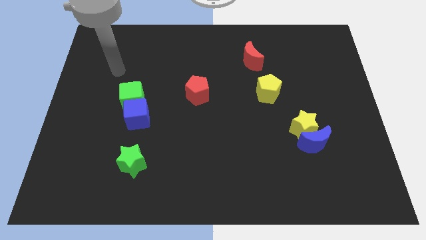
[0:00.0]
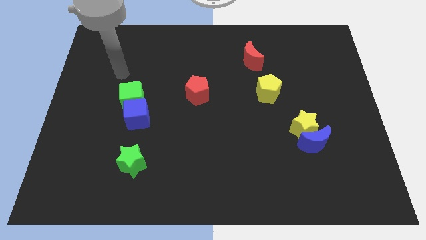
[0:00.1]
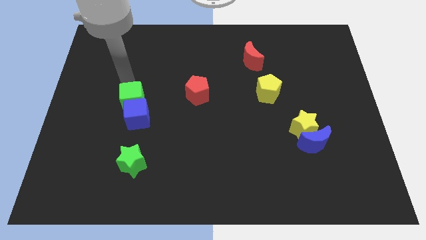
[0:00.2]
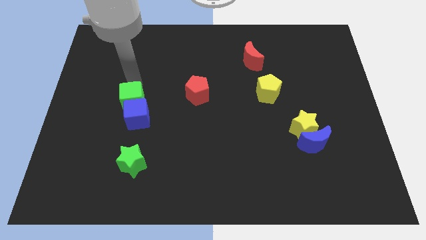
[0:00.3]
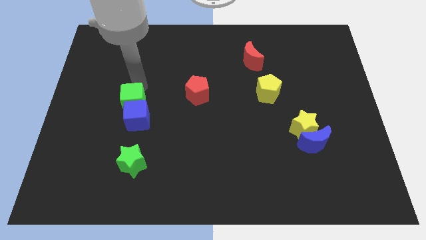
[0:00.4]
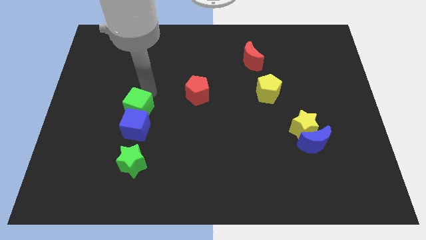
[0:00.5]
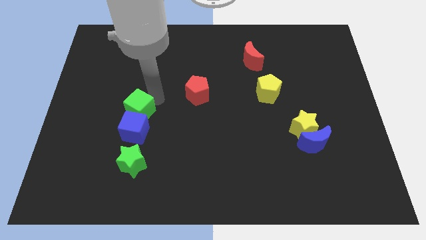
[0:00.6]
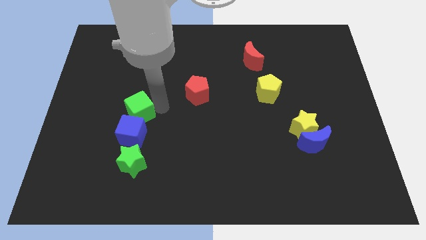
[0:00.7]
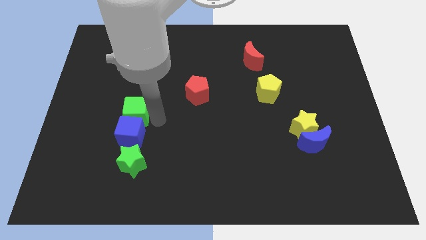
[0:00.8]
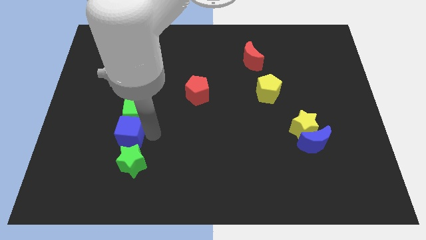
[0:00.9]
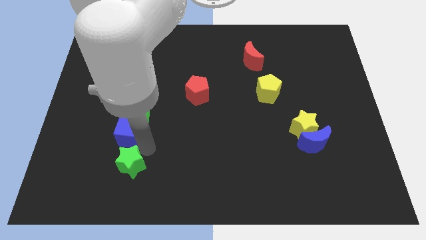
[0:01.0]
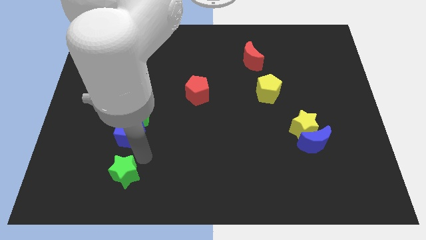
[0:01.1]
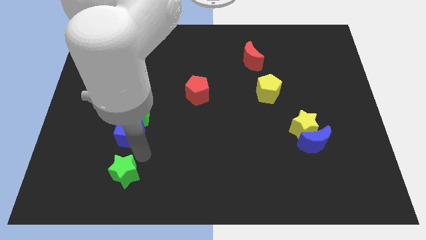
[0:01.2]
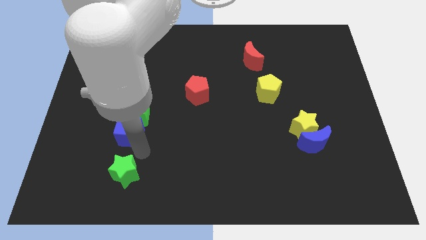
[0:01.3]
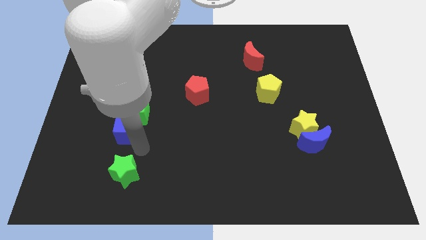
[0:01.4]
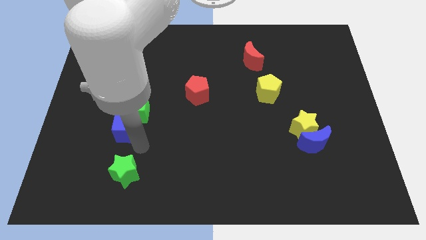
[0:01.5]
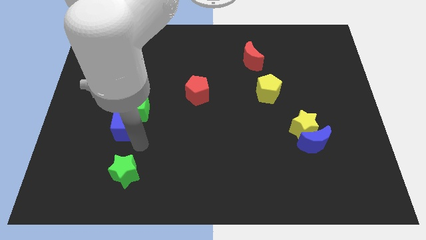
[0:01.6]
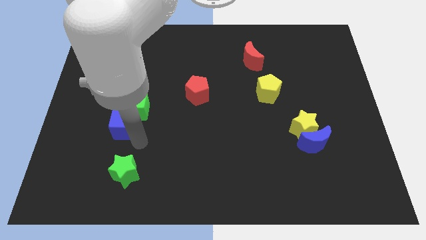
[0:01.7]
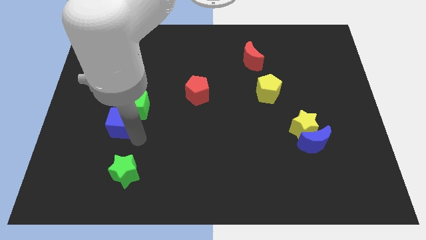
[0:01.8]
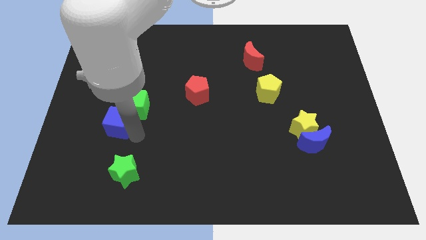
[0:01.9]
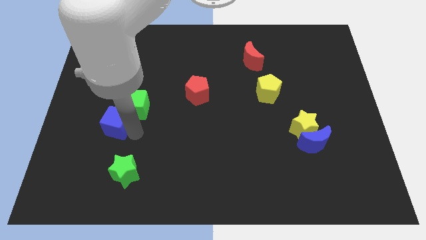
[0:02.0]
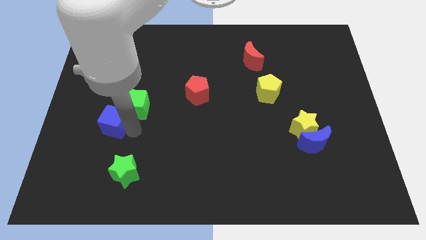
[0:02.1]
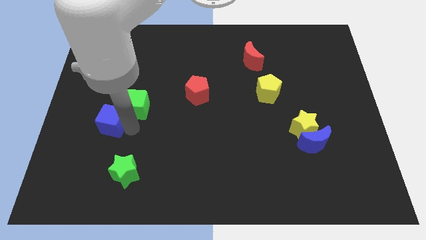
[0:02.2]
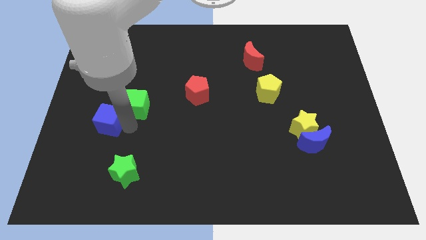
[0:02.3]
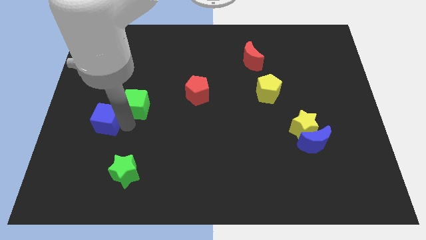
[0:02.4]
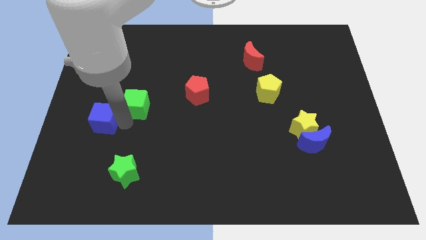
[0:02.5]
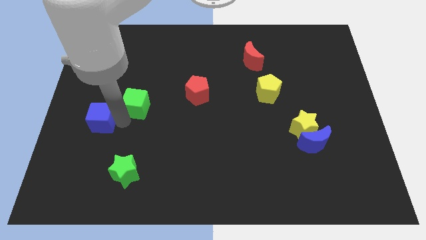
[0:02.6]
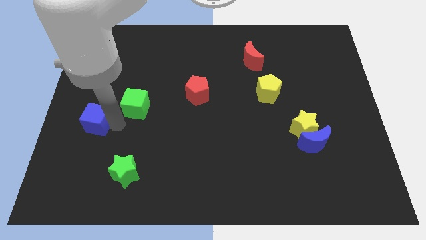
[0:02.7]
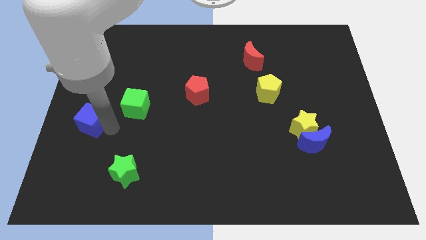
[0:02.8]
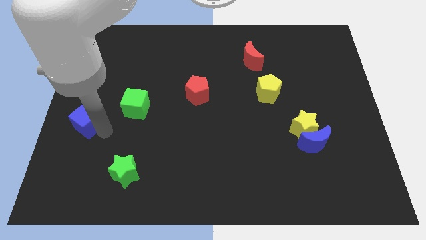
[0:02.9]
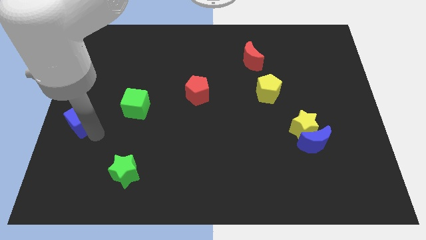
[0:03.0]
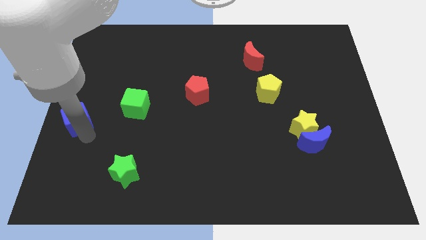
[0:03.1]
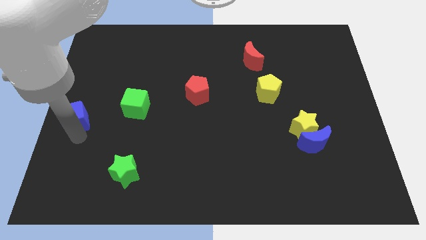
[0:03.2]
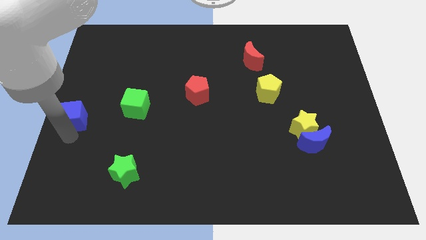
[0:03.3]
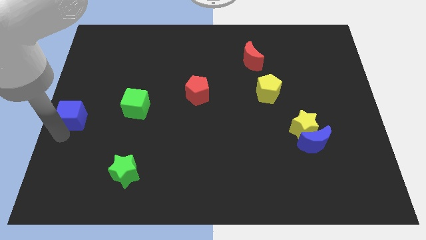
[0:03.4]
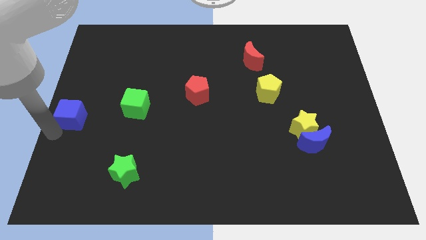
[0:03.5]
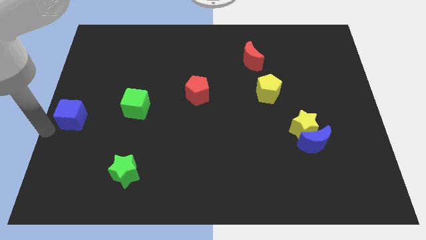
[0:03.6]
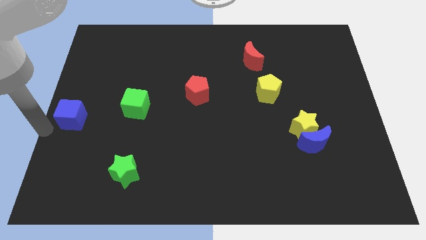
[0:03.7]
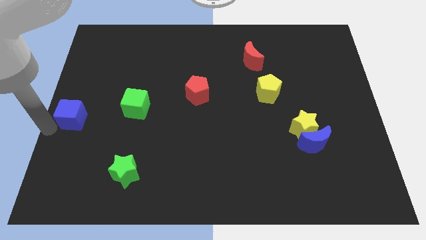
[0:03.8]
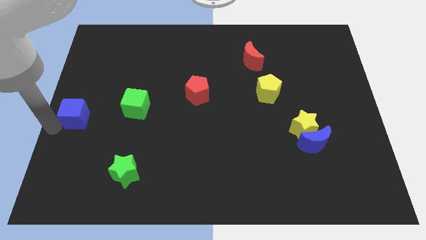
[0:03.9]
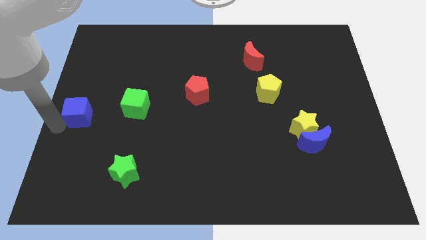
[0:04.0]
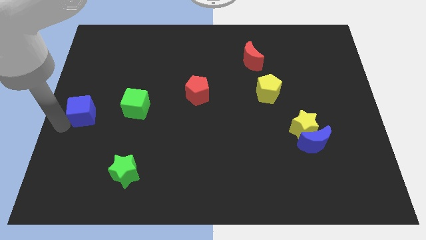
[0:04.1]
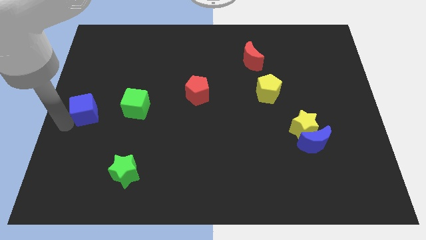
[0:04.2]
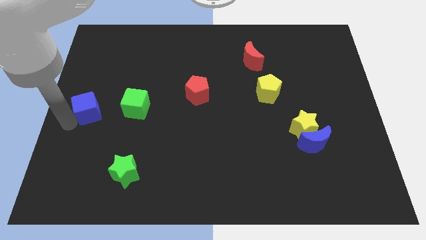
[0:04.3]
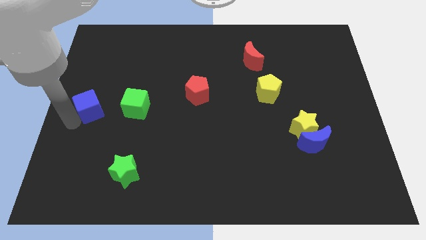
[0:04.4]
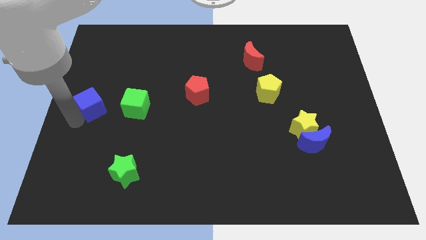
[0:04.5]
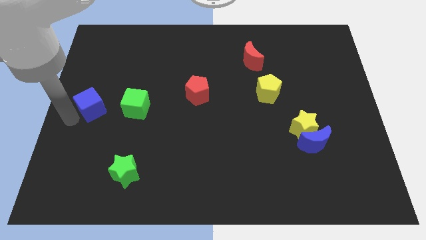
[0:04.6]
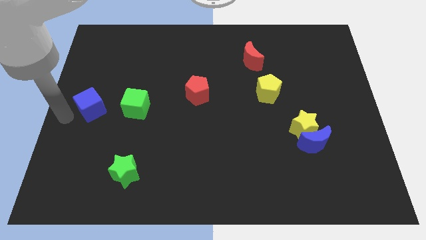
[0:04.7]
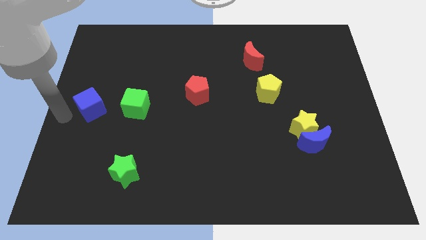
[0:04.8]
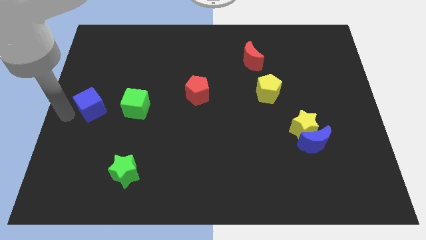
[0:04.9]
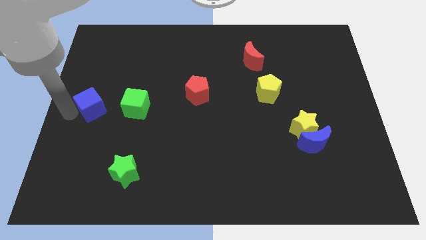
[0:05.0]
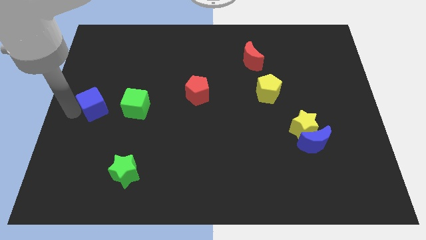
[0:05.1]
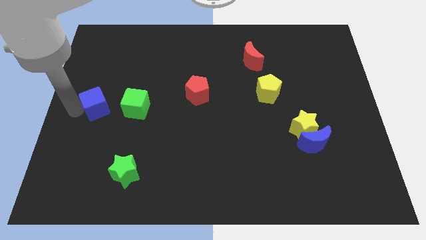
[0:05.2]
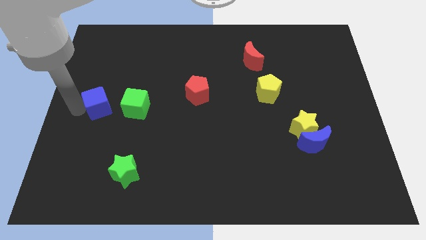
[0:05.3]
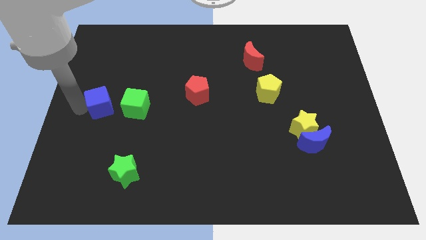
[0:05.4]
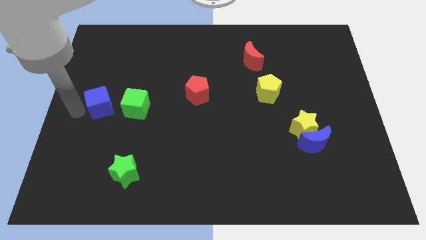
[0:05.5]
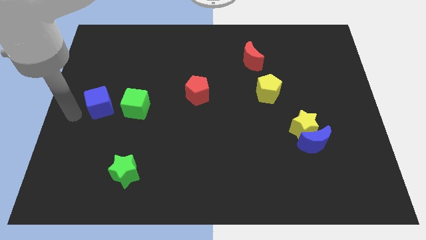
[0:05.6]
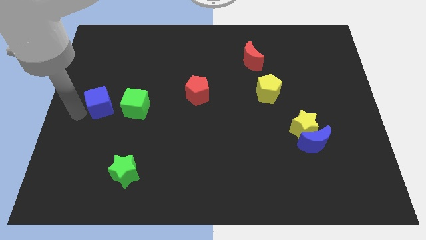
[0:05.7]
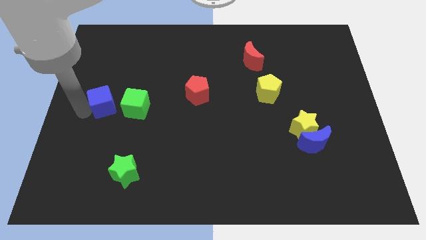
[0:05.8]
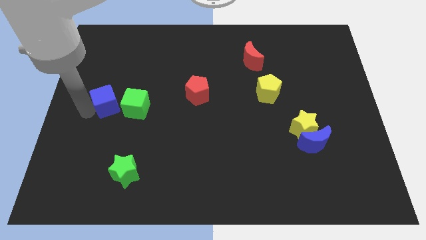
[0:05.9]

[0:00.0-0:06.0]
put the blue cube to the top left side of the green cube

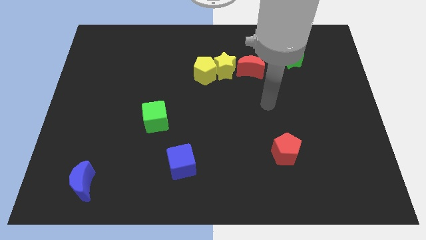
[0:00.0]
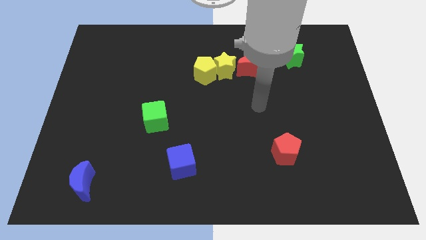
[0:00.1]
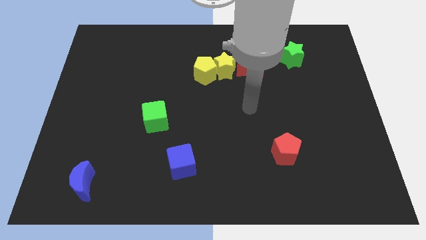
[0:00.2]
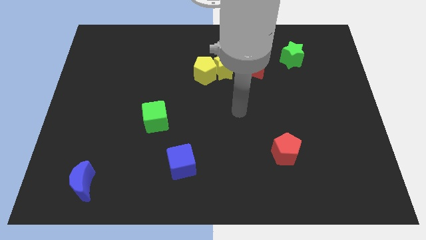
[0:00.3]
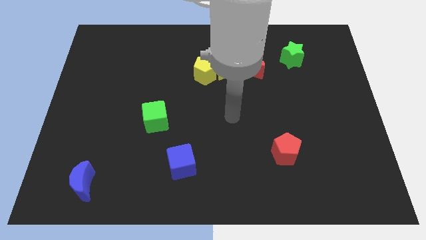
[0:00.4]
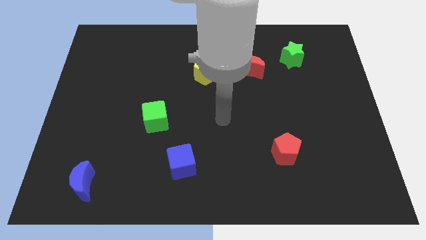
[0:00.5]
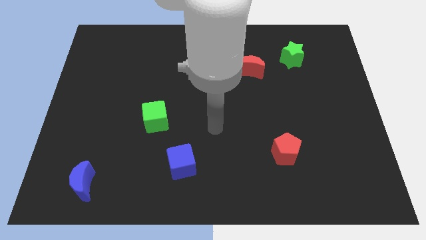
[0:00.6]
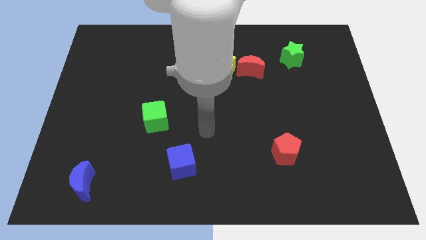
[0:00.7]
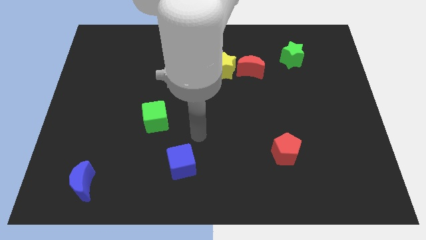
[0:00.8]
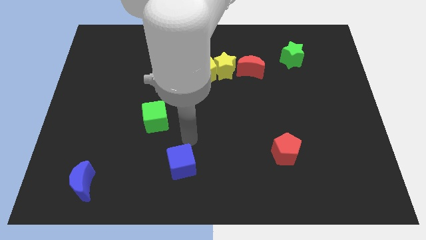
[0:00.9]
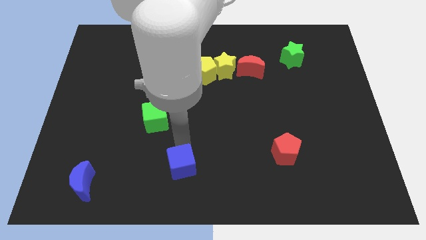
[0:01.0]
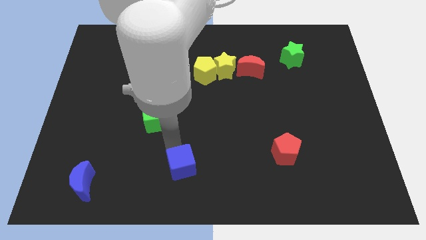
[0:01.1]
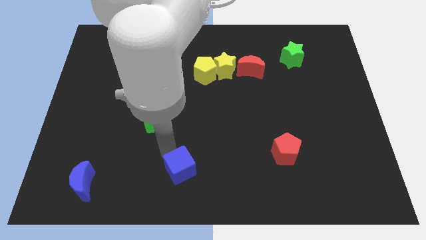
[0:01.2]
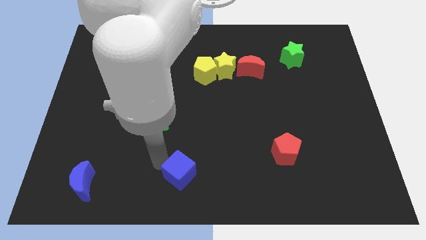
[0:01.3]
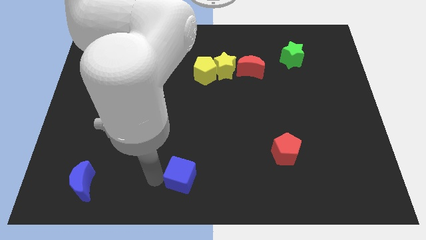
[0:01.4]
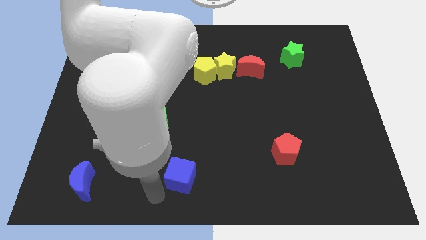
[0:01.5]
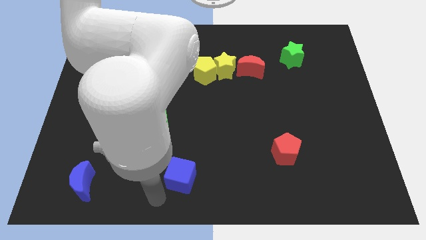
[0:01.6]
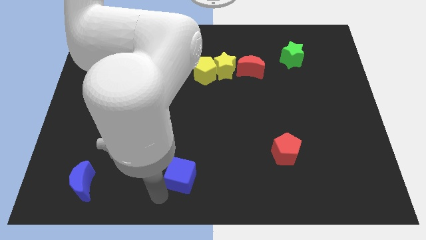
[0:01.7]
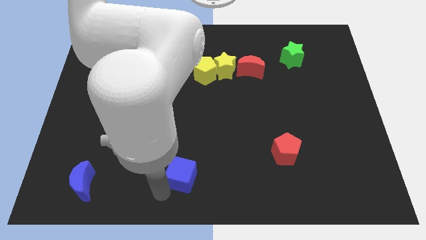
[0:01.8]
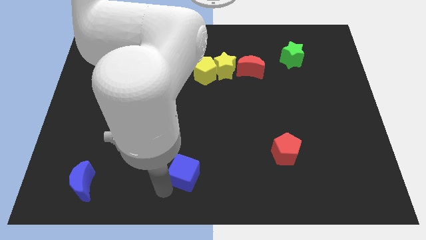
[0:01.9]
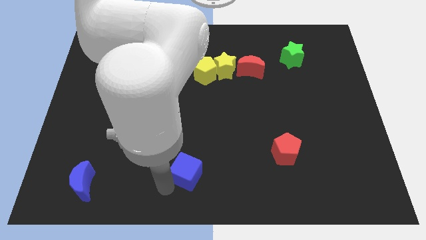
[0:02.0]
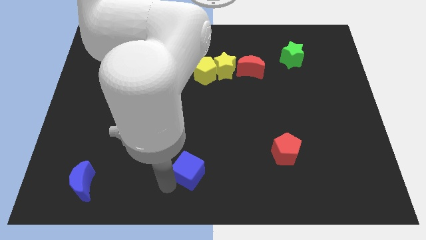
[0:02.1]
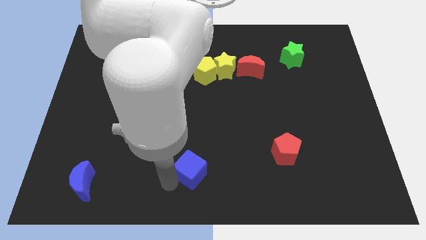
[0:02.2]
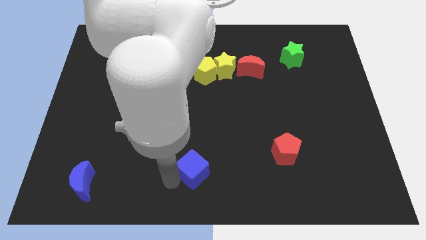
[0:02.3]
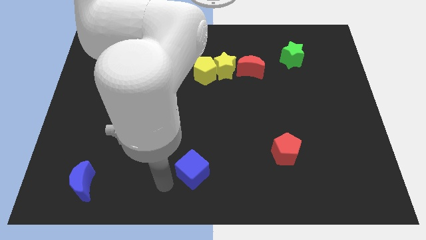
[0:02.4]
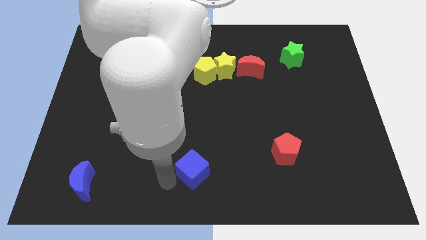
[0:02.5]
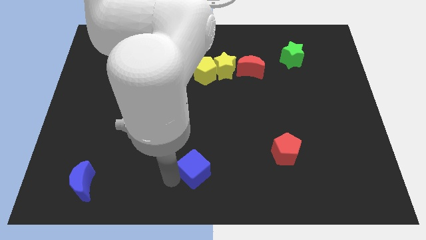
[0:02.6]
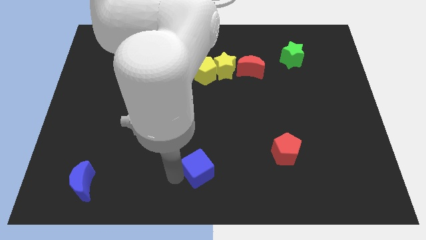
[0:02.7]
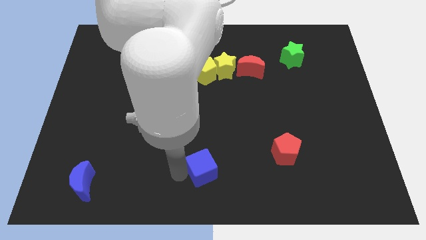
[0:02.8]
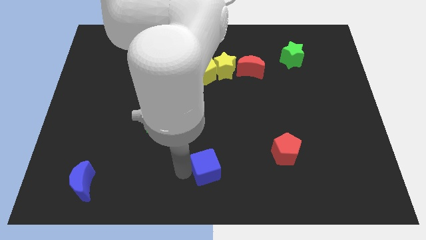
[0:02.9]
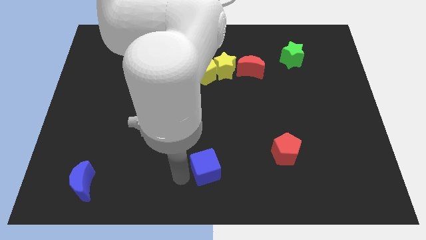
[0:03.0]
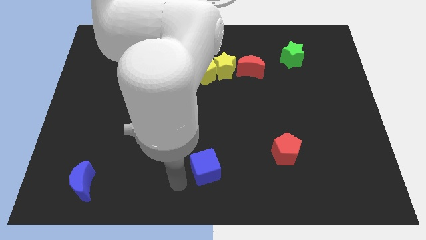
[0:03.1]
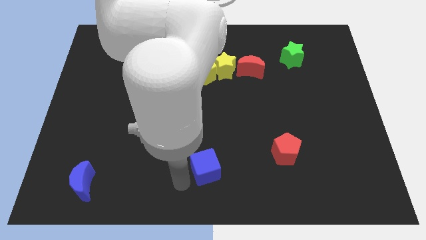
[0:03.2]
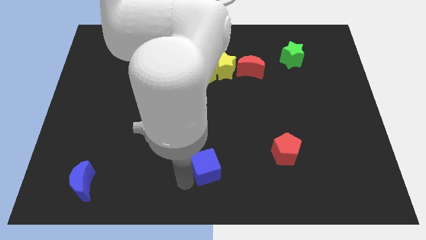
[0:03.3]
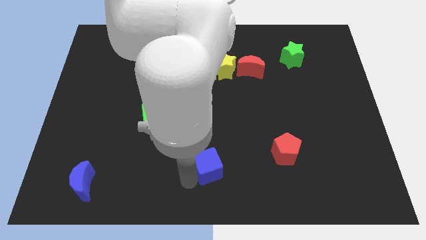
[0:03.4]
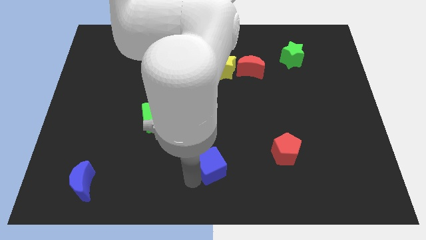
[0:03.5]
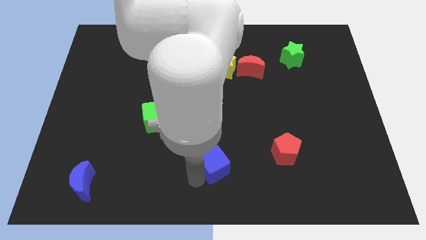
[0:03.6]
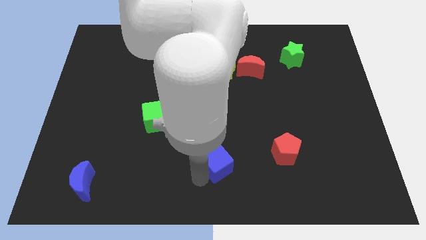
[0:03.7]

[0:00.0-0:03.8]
move the blue cube to the left of the red pentagon
